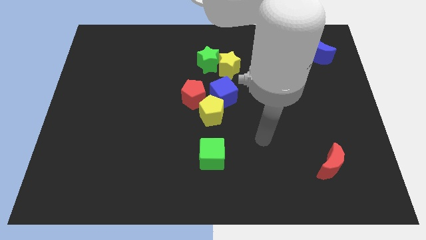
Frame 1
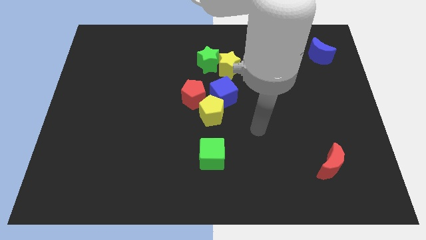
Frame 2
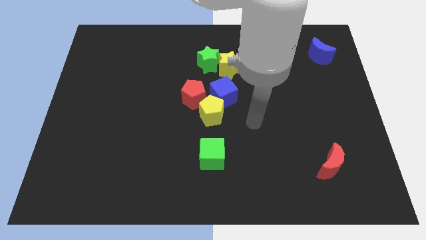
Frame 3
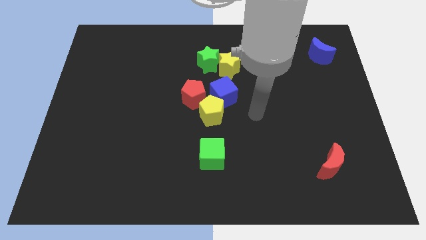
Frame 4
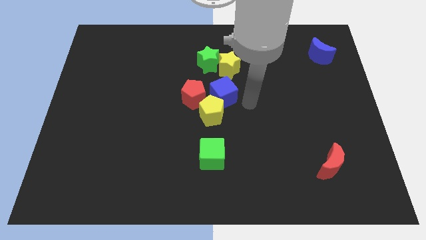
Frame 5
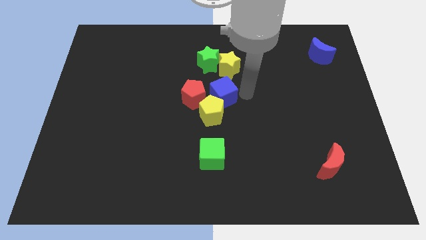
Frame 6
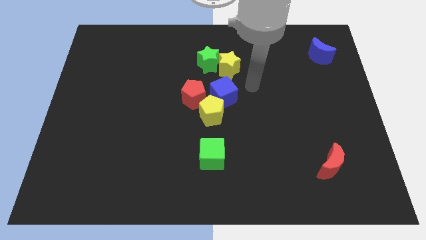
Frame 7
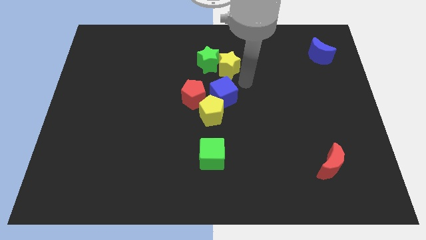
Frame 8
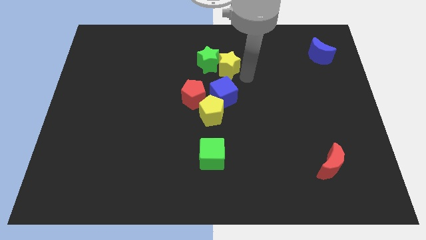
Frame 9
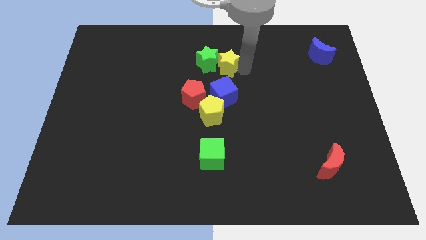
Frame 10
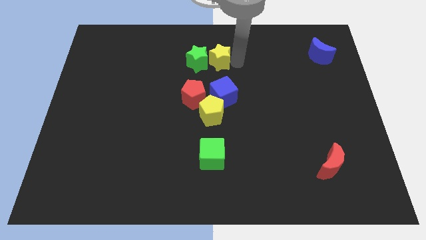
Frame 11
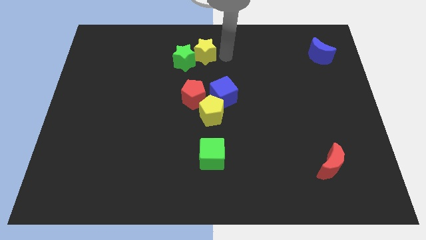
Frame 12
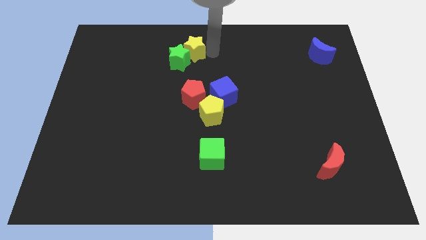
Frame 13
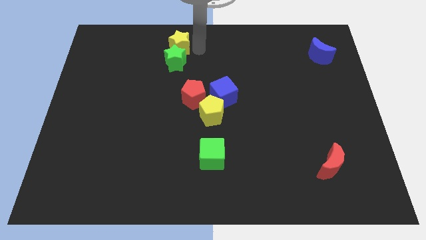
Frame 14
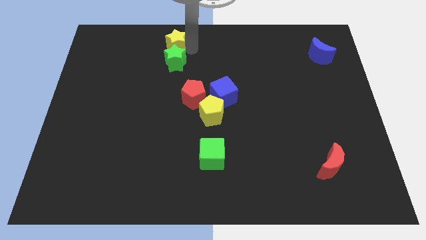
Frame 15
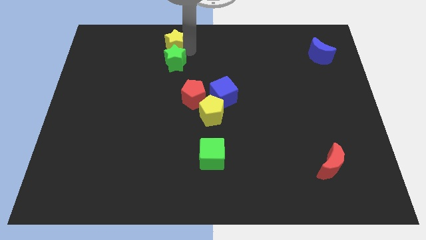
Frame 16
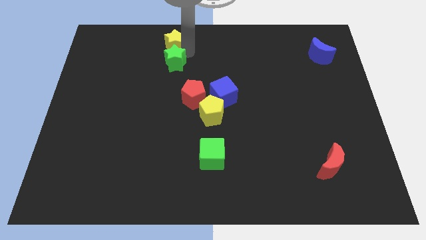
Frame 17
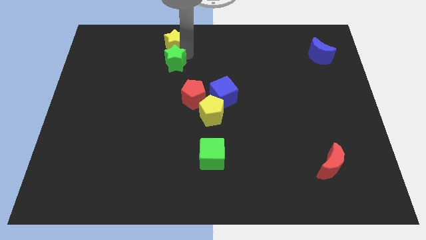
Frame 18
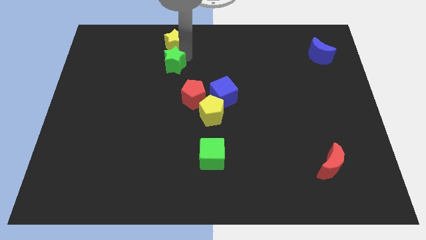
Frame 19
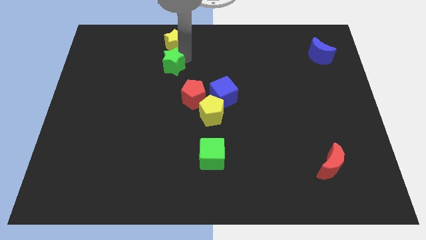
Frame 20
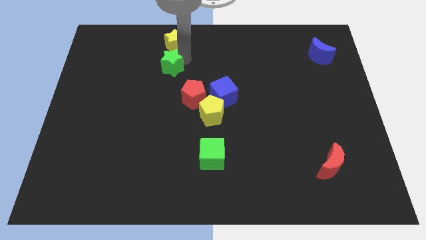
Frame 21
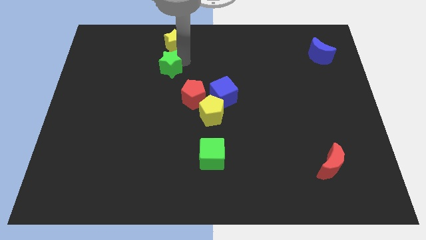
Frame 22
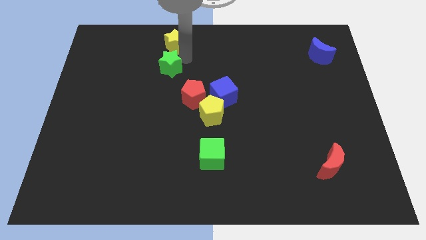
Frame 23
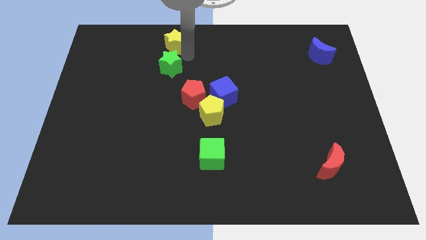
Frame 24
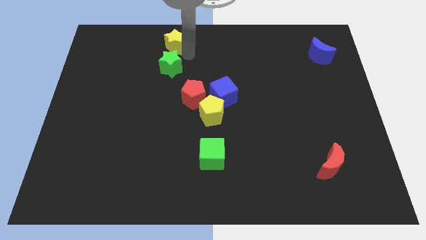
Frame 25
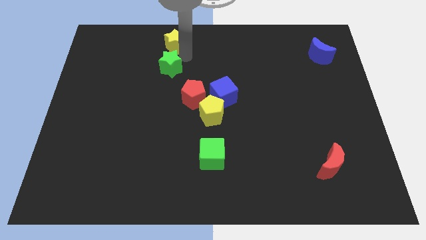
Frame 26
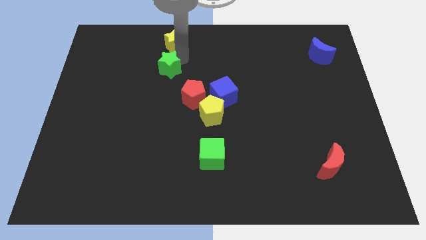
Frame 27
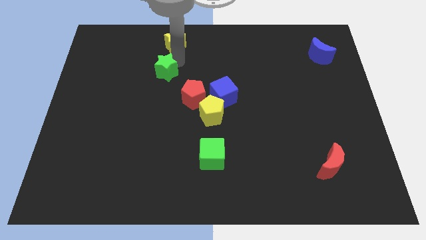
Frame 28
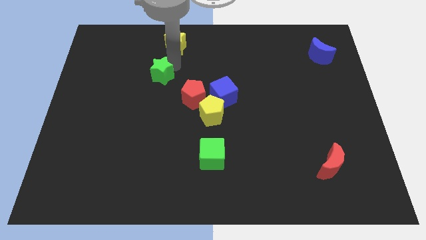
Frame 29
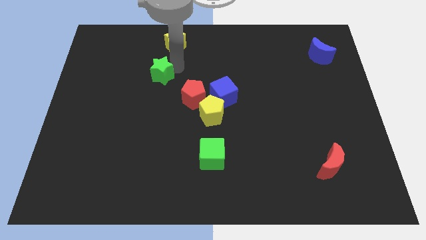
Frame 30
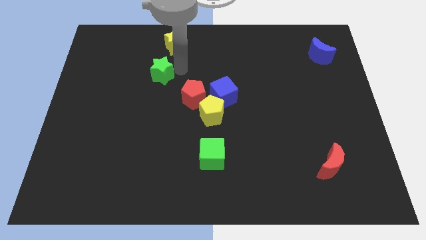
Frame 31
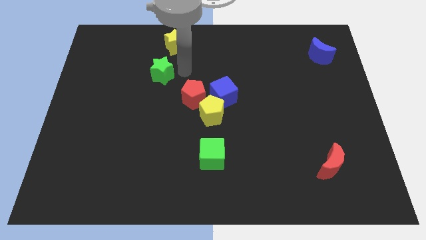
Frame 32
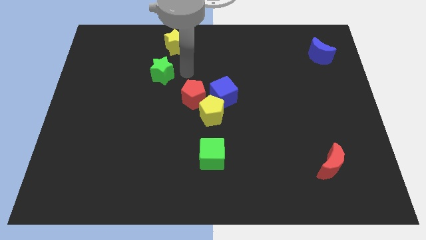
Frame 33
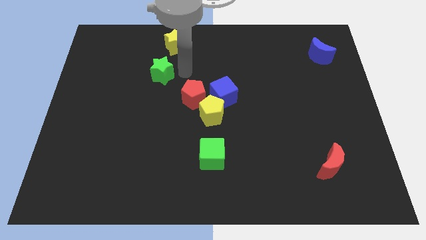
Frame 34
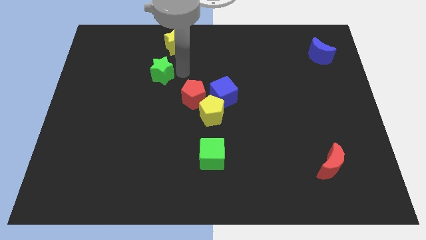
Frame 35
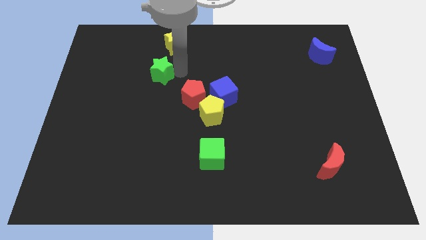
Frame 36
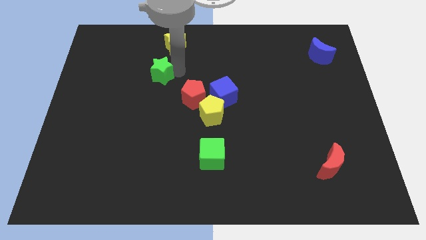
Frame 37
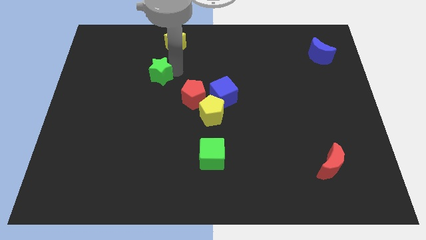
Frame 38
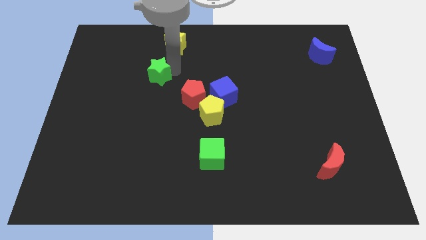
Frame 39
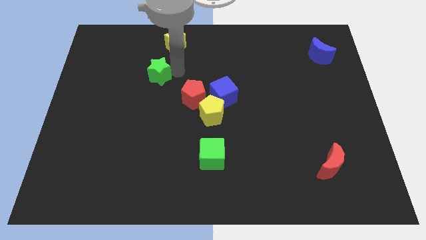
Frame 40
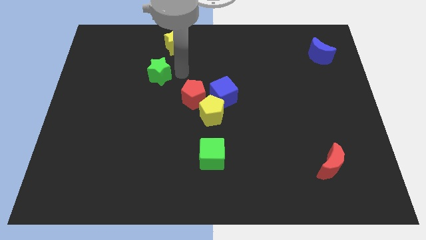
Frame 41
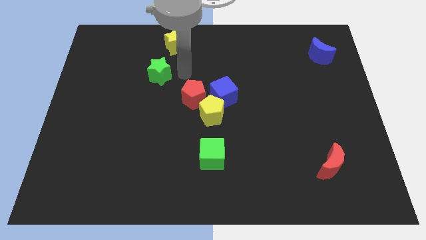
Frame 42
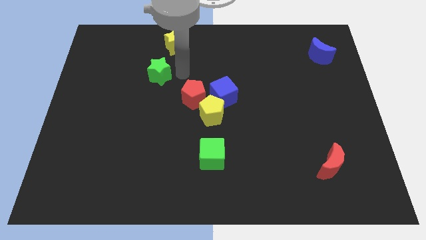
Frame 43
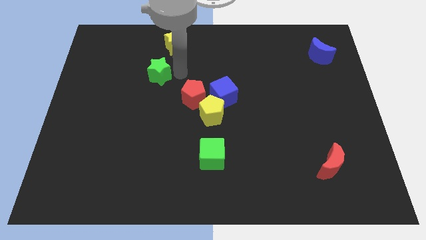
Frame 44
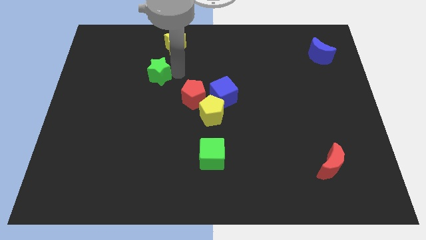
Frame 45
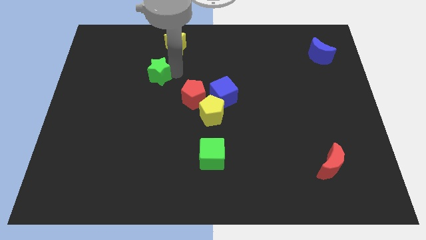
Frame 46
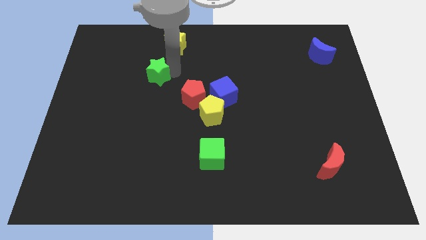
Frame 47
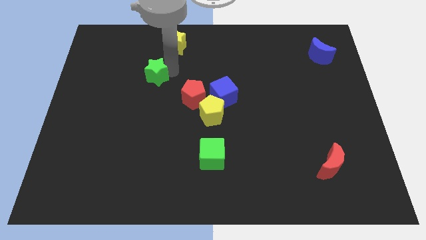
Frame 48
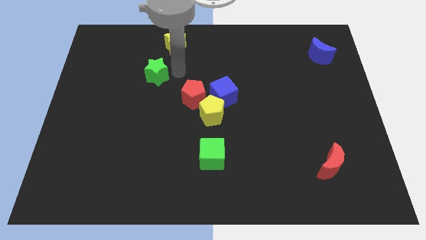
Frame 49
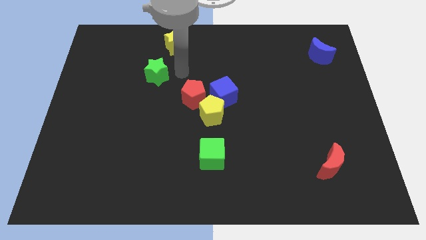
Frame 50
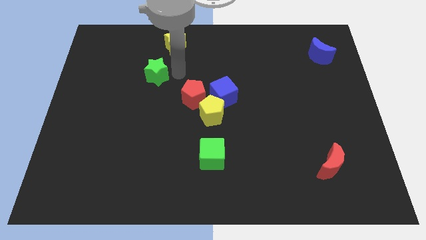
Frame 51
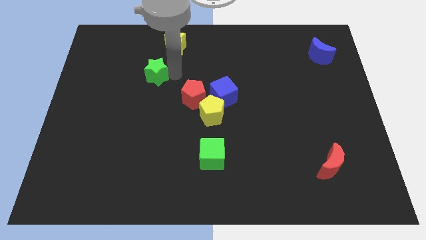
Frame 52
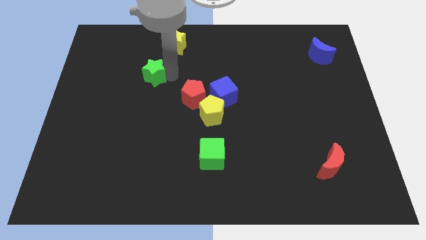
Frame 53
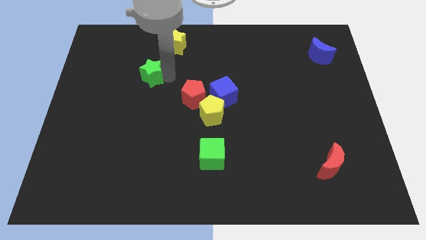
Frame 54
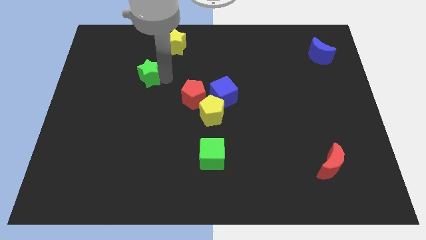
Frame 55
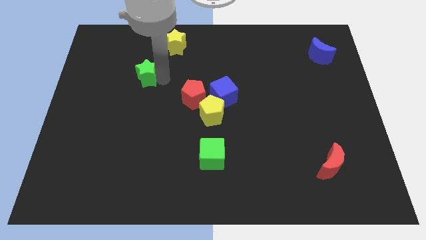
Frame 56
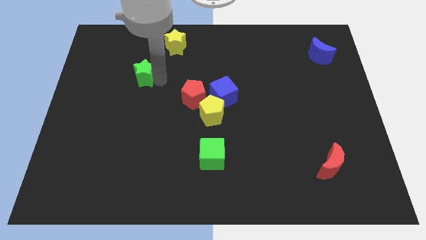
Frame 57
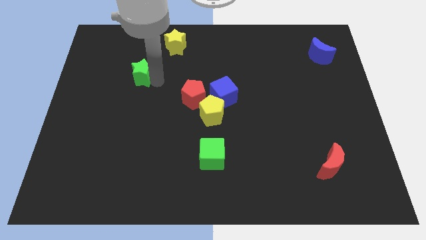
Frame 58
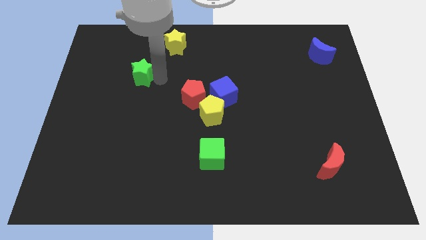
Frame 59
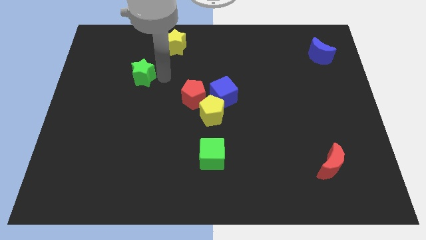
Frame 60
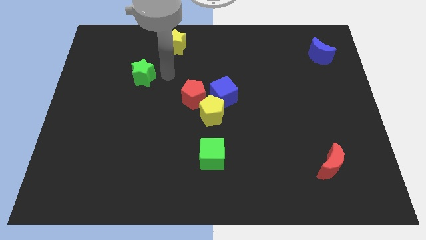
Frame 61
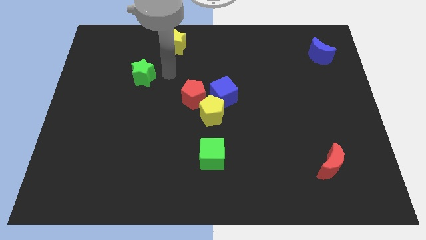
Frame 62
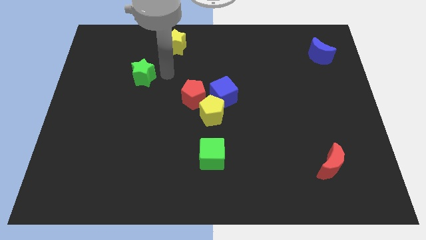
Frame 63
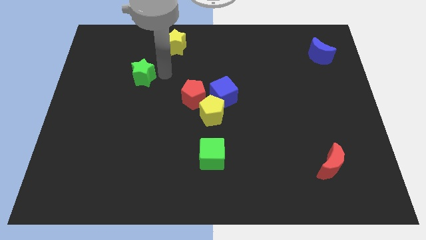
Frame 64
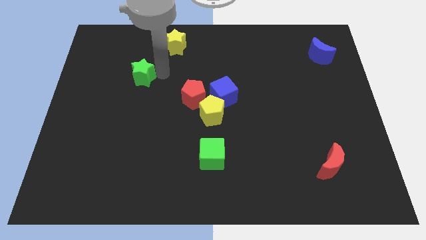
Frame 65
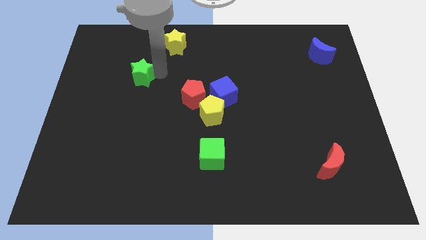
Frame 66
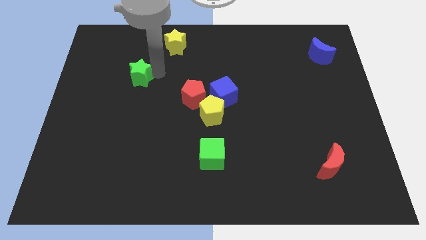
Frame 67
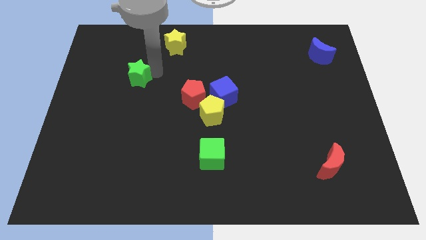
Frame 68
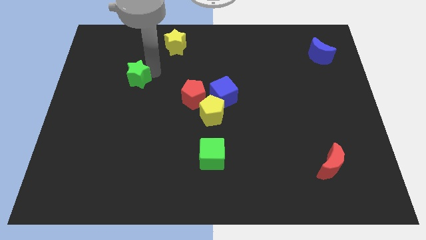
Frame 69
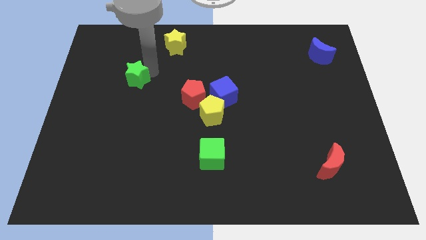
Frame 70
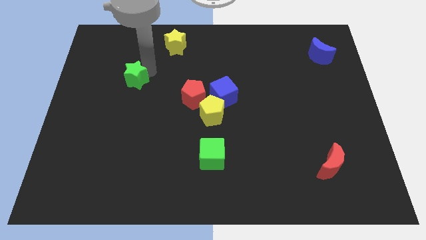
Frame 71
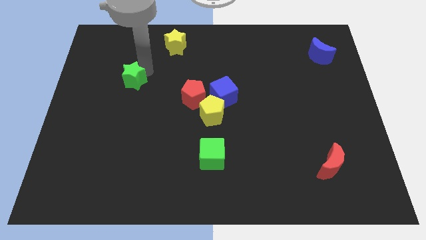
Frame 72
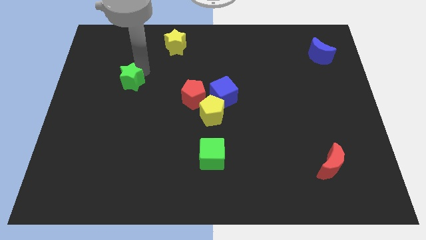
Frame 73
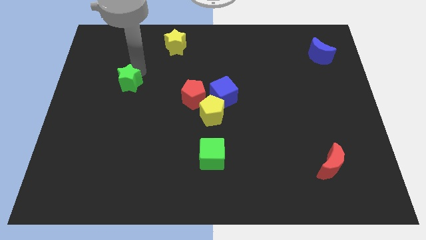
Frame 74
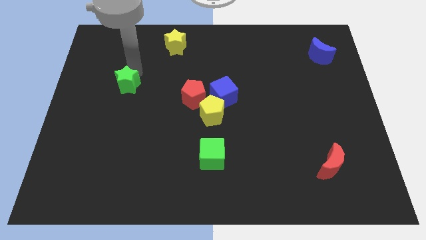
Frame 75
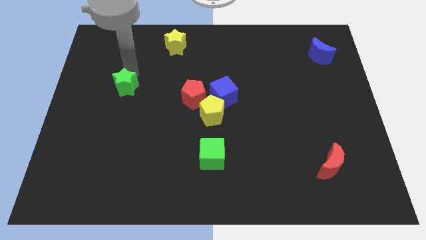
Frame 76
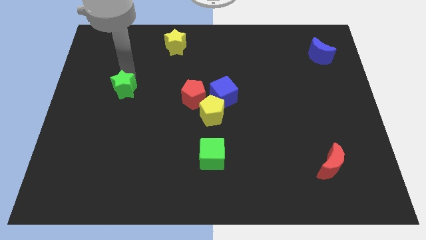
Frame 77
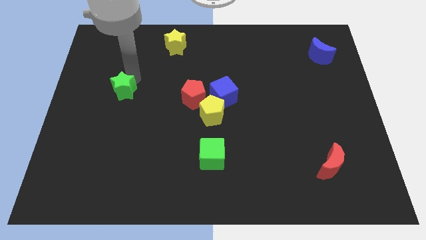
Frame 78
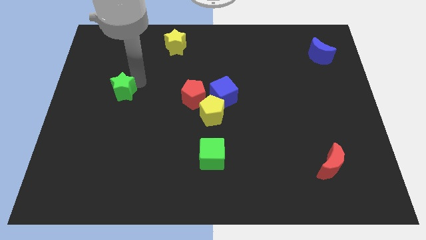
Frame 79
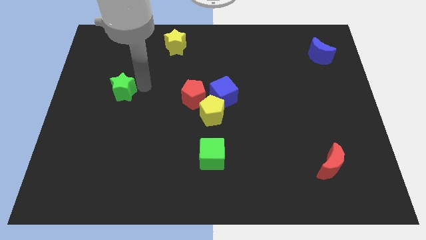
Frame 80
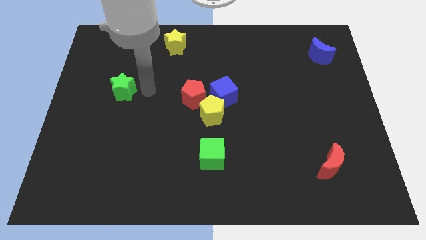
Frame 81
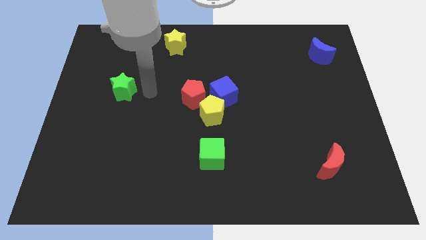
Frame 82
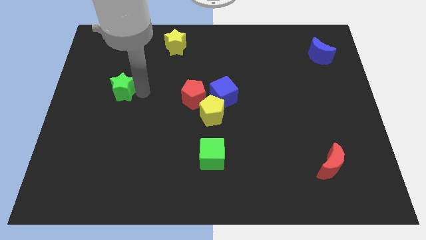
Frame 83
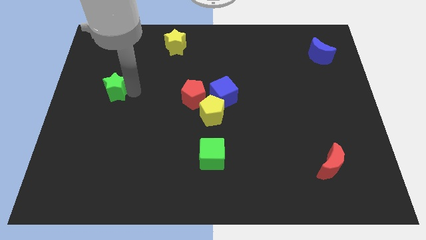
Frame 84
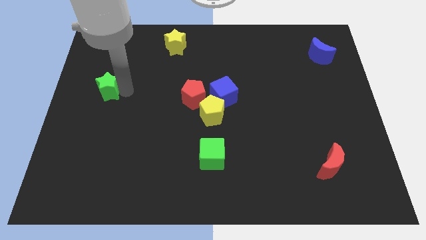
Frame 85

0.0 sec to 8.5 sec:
move the green star to the left side of the board
